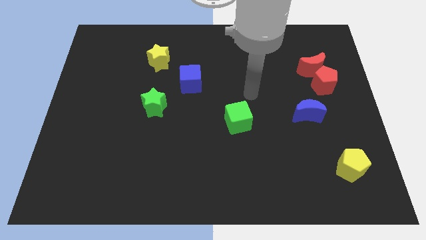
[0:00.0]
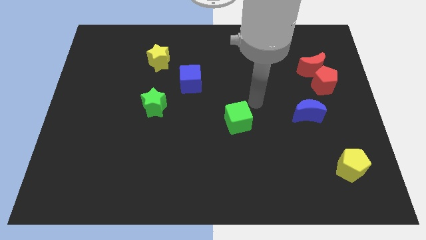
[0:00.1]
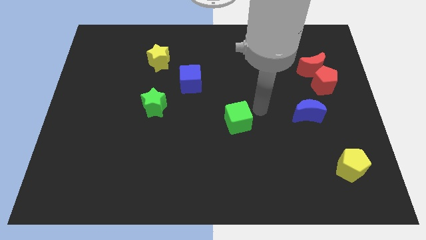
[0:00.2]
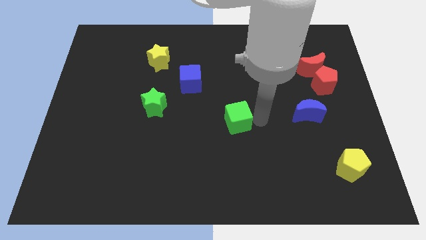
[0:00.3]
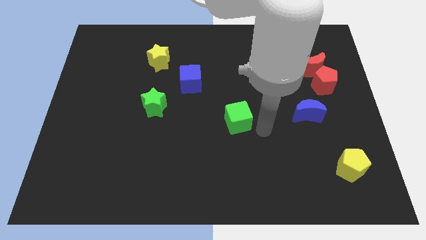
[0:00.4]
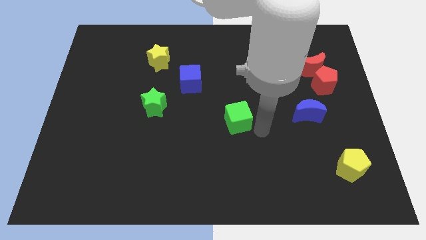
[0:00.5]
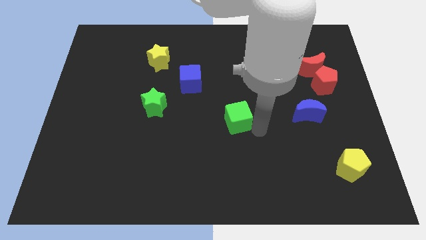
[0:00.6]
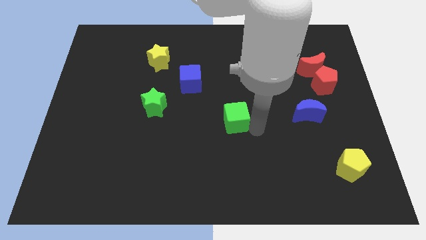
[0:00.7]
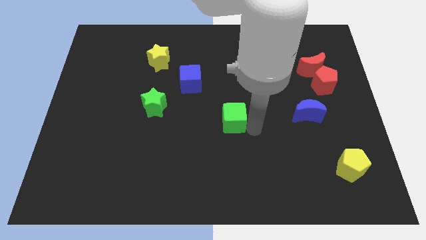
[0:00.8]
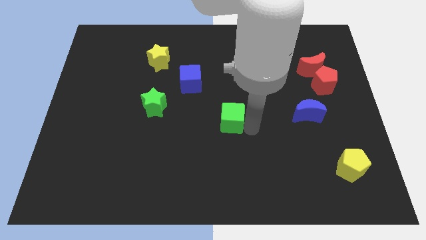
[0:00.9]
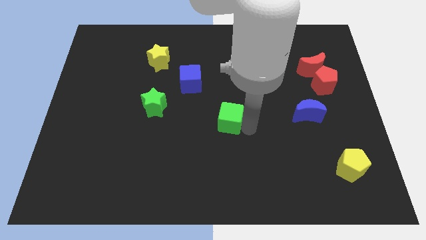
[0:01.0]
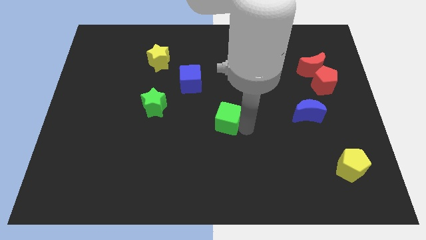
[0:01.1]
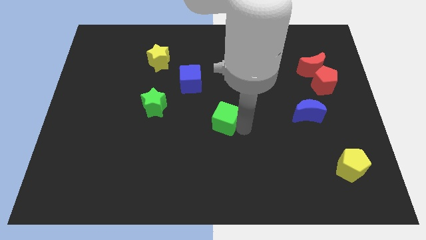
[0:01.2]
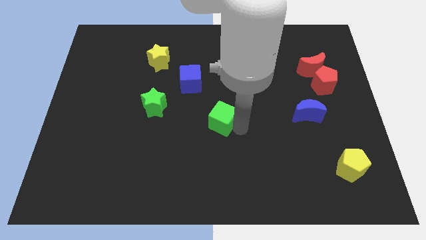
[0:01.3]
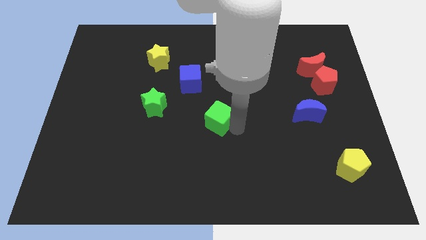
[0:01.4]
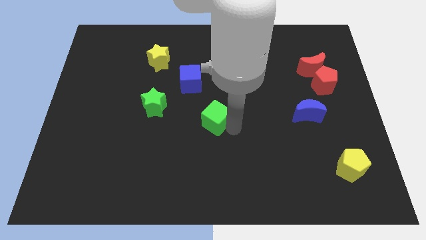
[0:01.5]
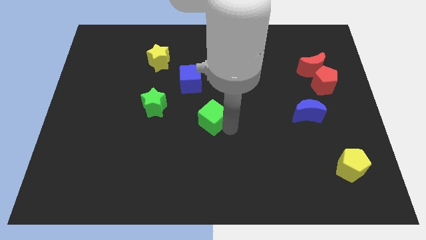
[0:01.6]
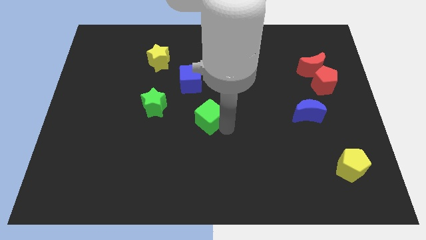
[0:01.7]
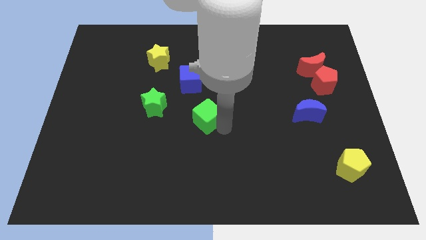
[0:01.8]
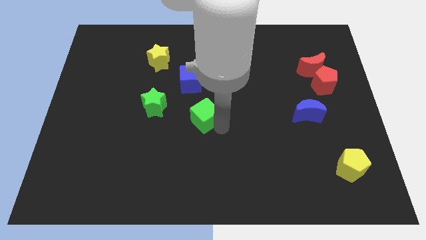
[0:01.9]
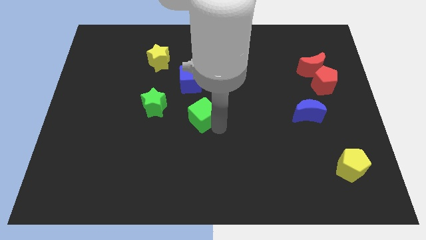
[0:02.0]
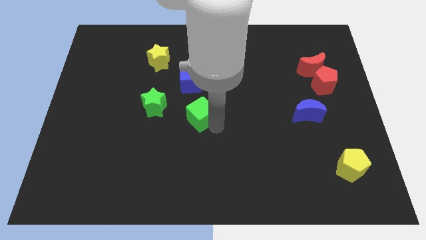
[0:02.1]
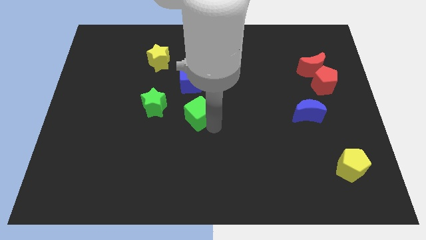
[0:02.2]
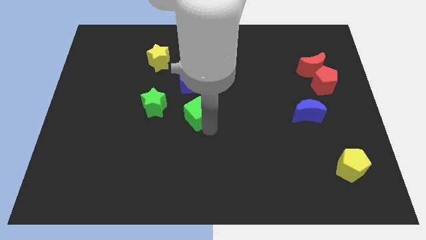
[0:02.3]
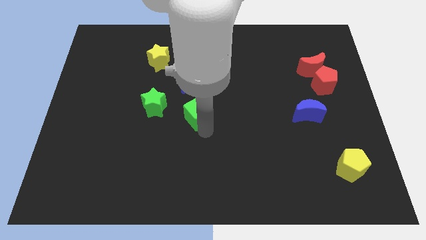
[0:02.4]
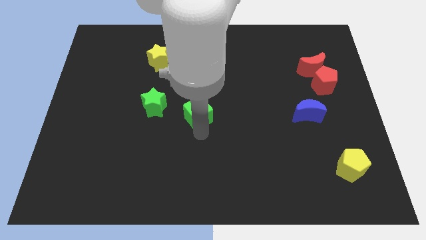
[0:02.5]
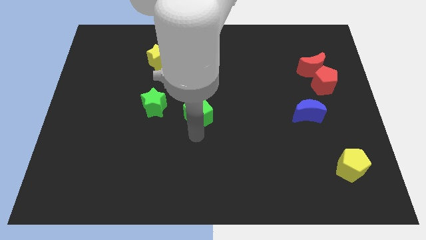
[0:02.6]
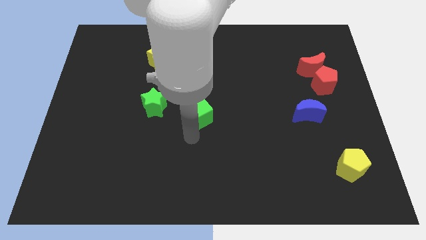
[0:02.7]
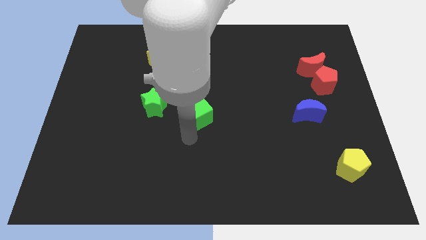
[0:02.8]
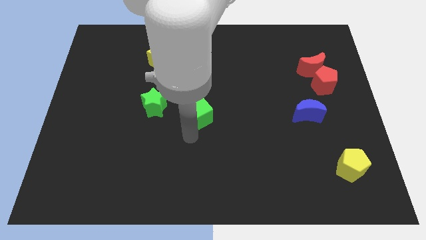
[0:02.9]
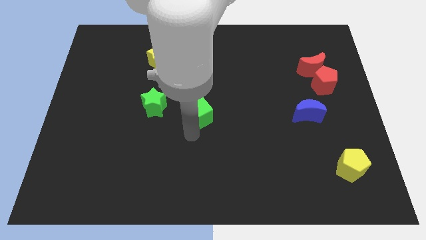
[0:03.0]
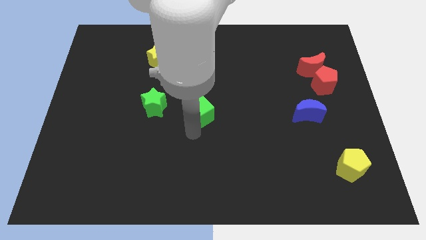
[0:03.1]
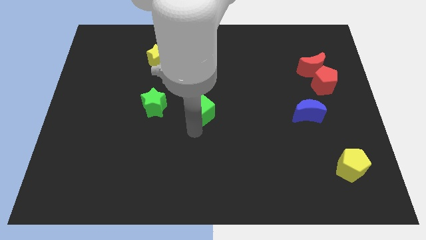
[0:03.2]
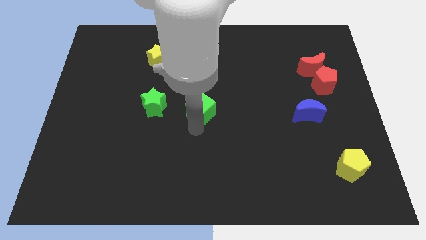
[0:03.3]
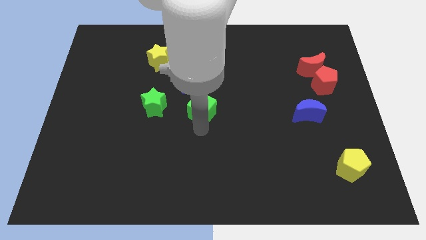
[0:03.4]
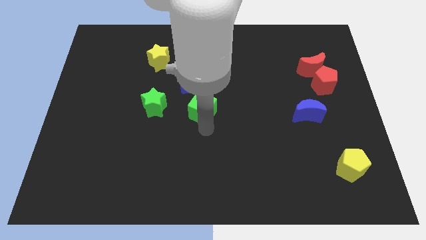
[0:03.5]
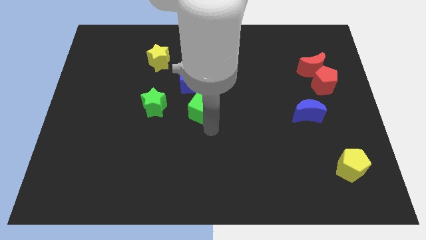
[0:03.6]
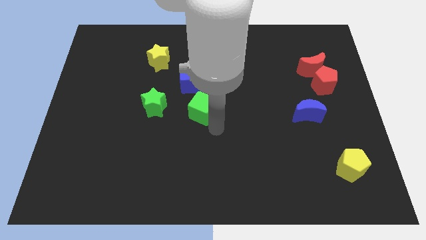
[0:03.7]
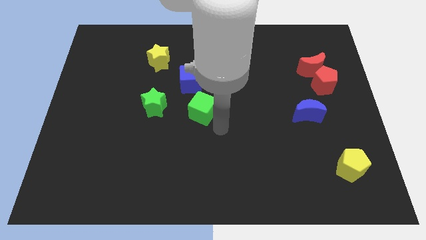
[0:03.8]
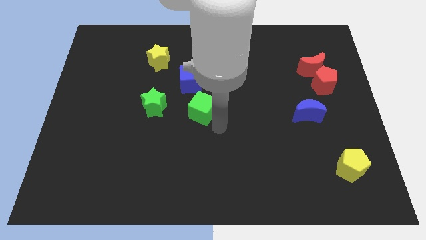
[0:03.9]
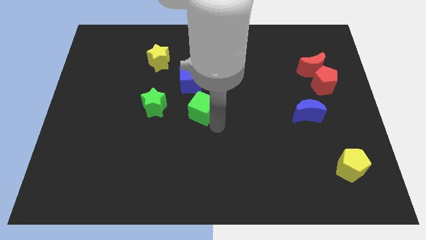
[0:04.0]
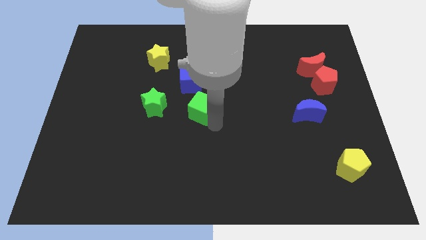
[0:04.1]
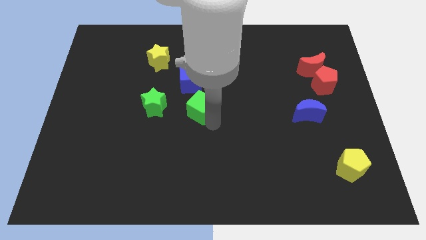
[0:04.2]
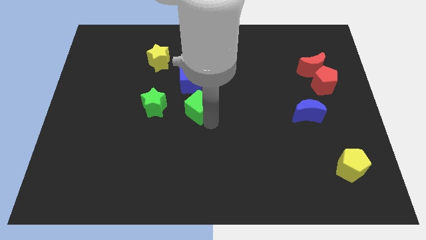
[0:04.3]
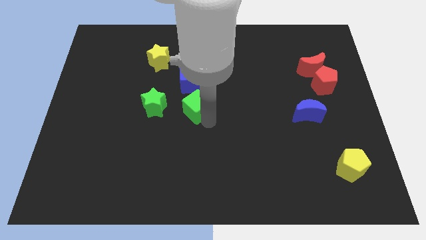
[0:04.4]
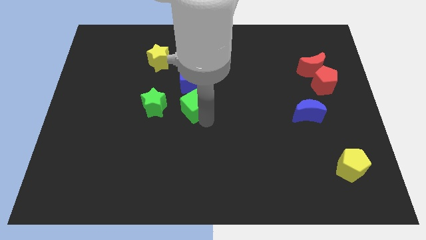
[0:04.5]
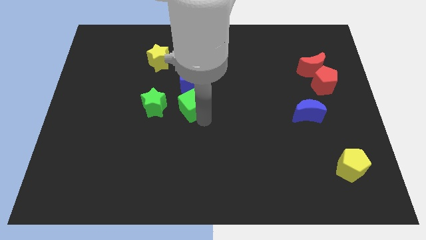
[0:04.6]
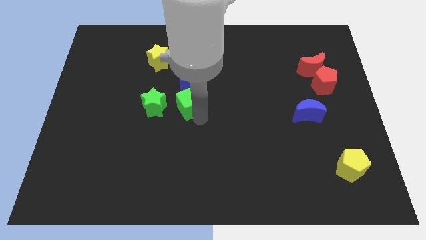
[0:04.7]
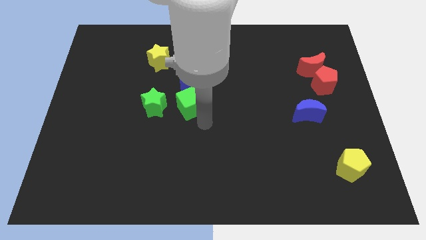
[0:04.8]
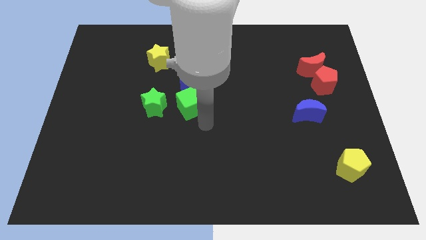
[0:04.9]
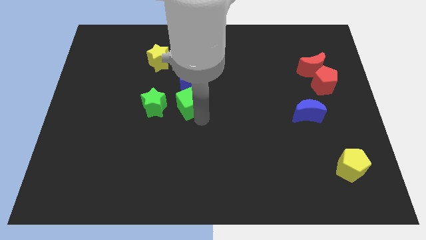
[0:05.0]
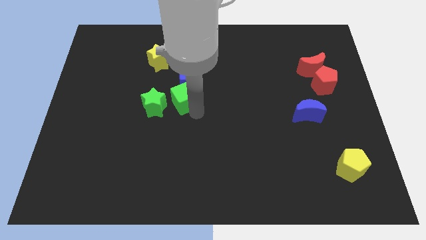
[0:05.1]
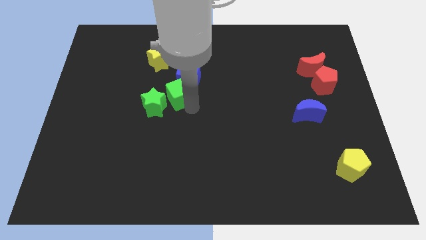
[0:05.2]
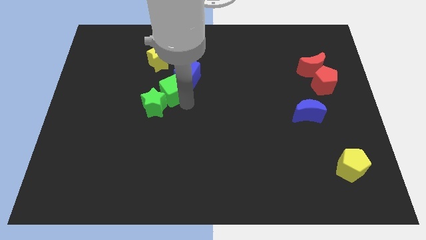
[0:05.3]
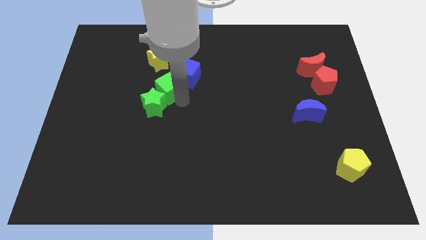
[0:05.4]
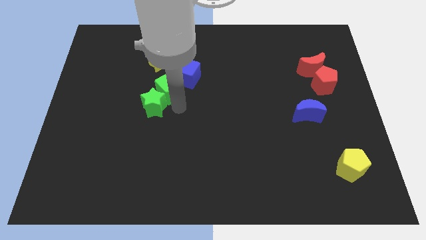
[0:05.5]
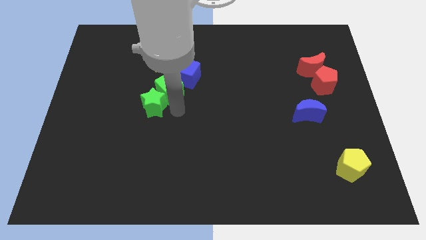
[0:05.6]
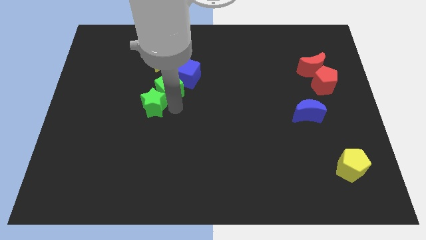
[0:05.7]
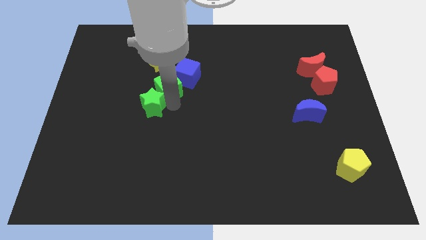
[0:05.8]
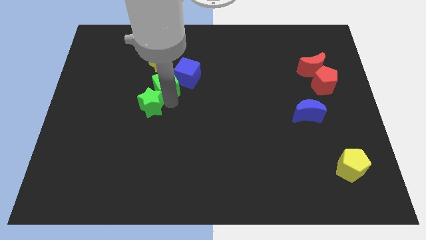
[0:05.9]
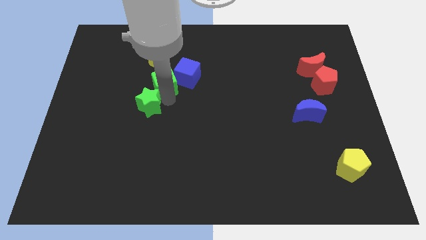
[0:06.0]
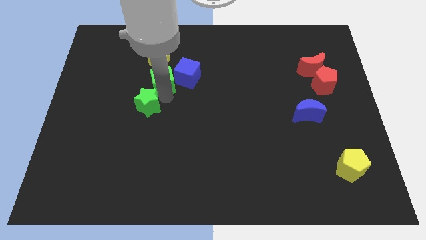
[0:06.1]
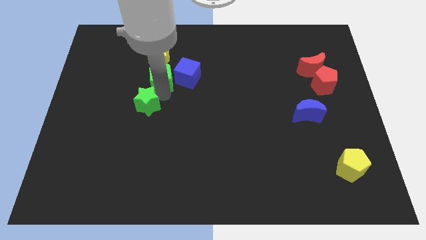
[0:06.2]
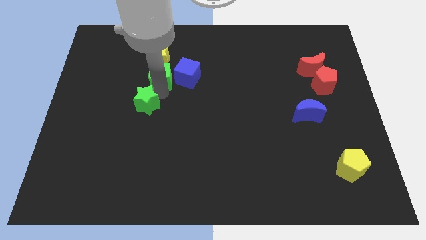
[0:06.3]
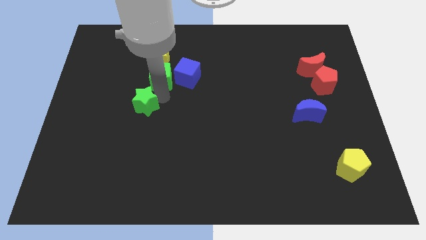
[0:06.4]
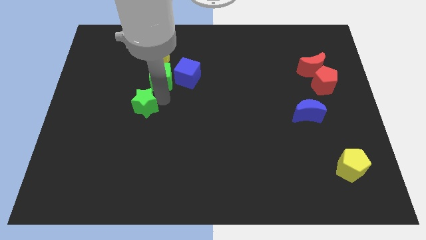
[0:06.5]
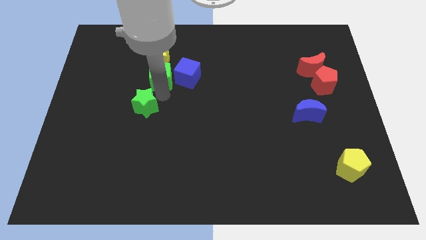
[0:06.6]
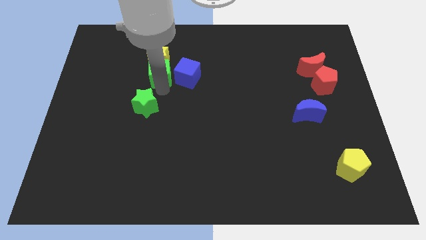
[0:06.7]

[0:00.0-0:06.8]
push the green cube close to the yellow star

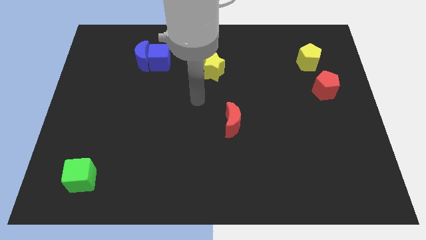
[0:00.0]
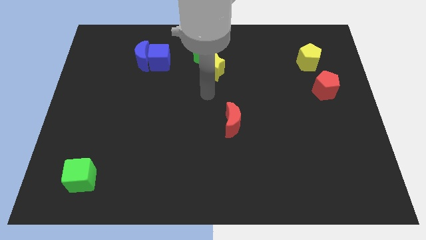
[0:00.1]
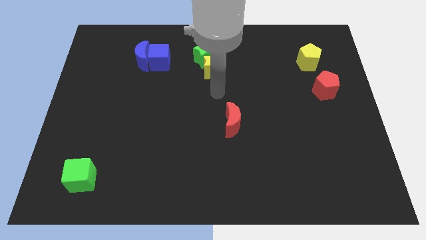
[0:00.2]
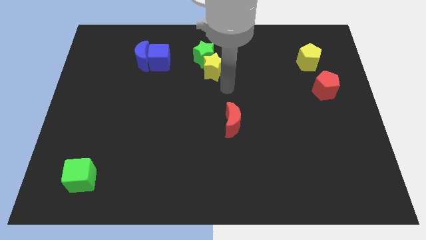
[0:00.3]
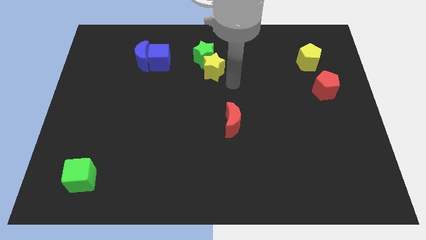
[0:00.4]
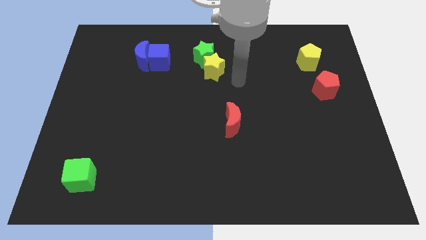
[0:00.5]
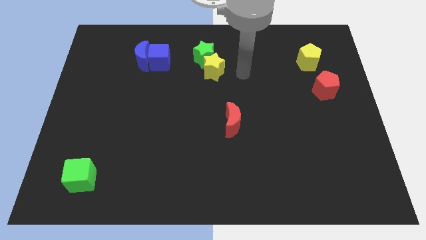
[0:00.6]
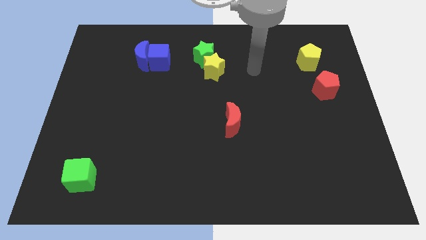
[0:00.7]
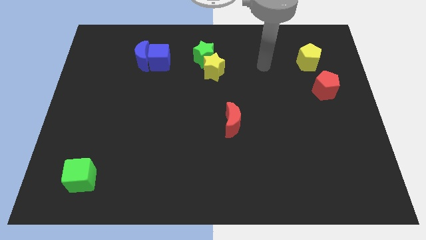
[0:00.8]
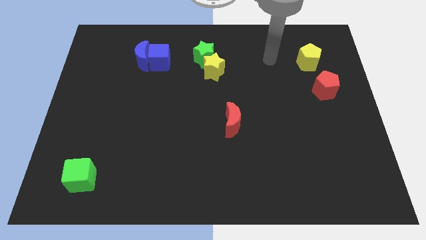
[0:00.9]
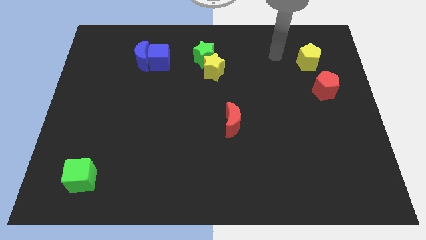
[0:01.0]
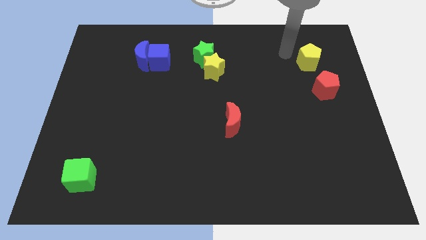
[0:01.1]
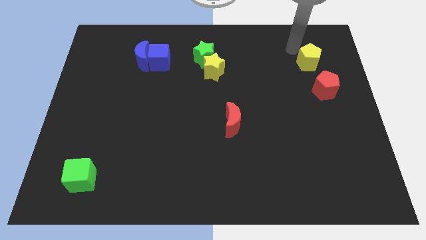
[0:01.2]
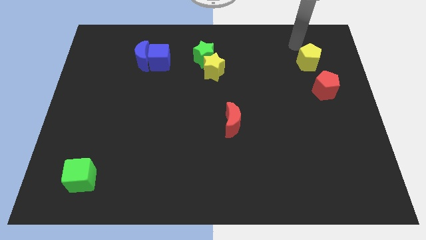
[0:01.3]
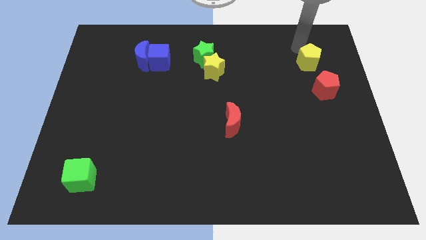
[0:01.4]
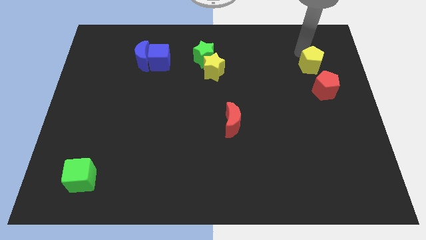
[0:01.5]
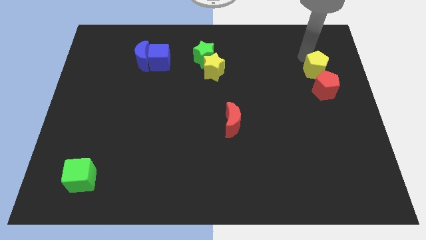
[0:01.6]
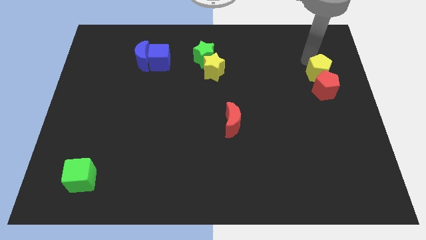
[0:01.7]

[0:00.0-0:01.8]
slide the yellow pentagon to the red pentagon
